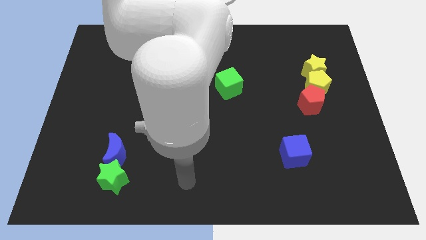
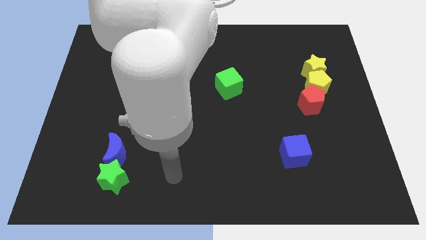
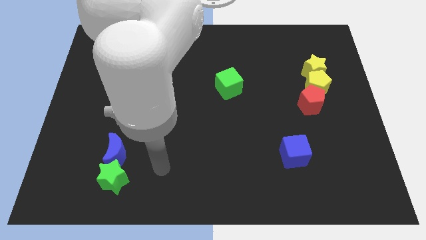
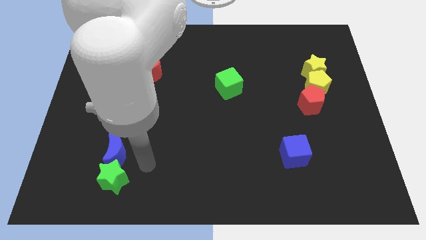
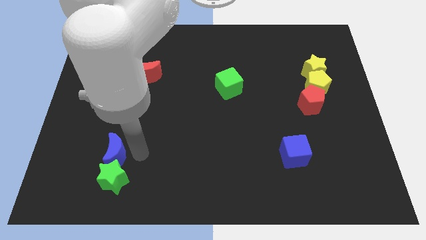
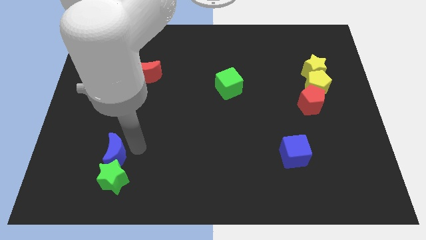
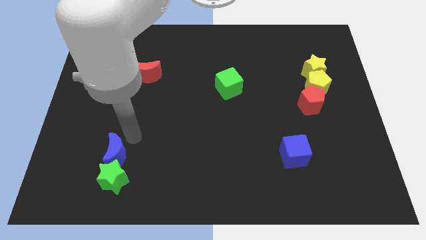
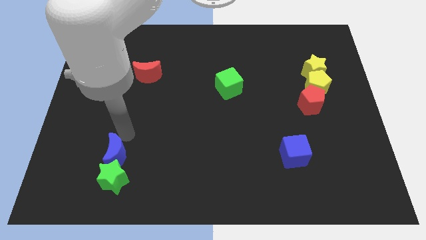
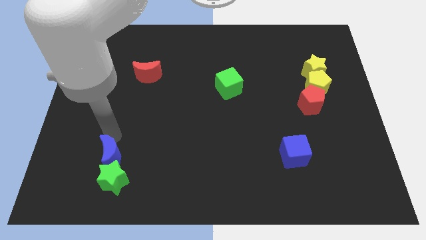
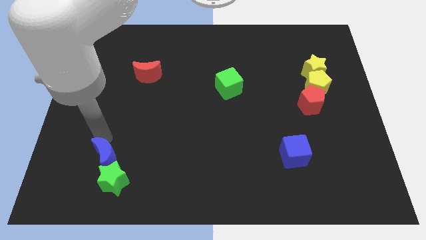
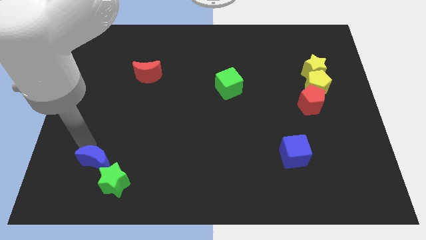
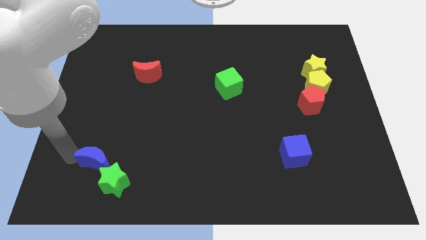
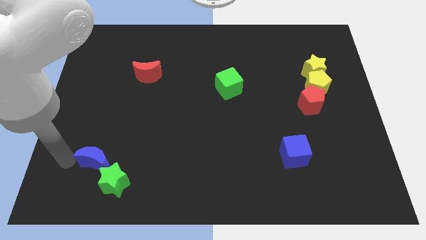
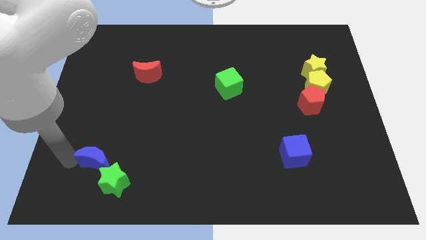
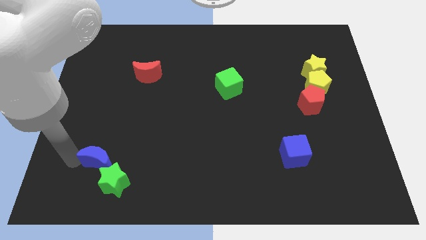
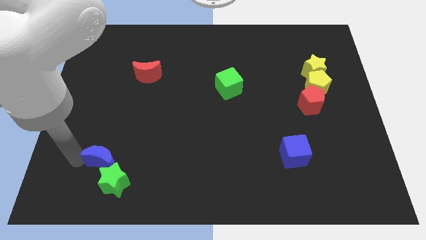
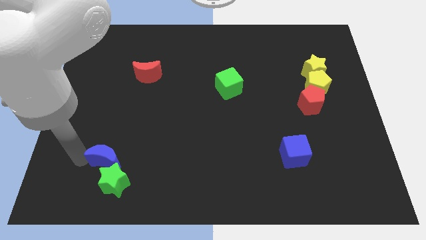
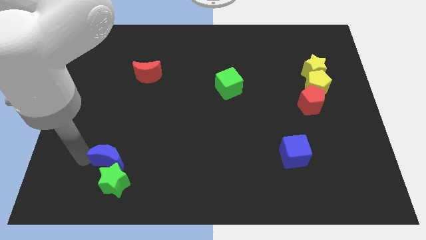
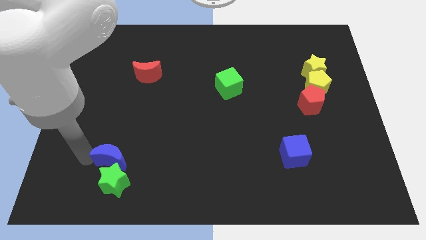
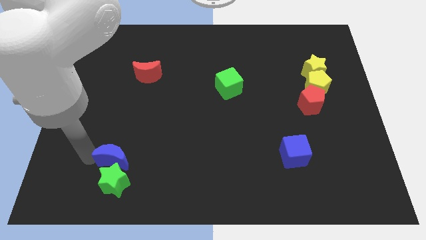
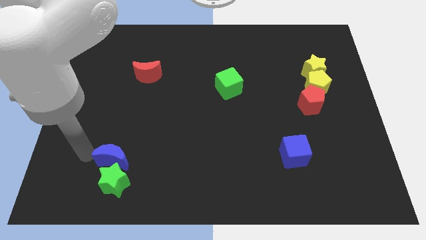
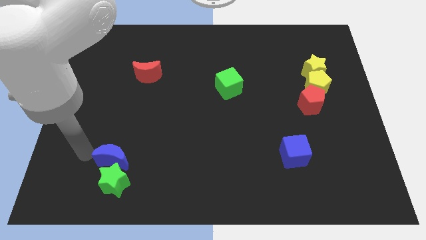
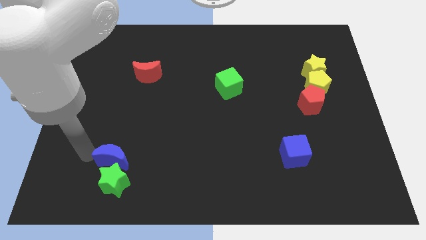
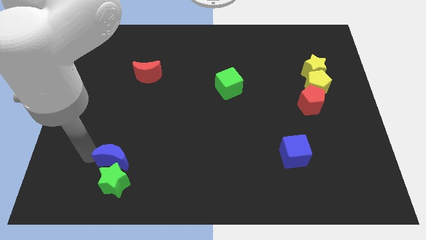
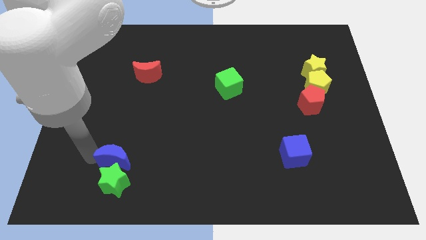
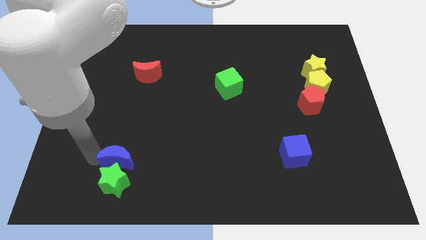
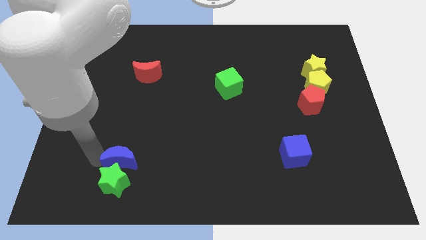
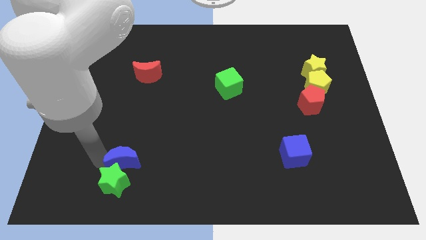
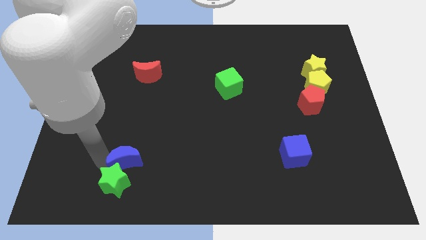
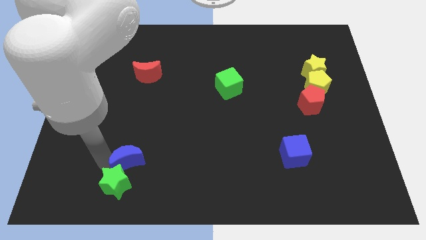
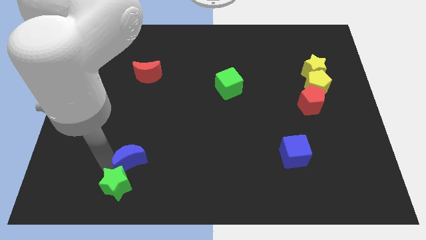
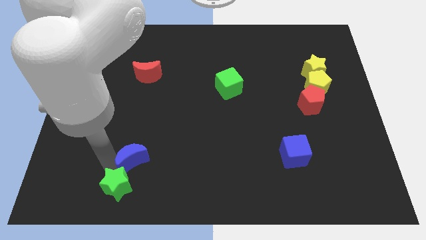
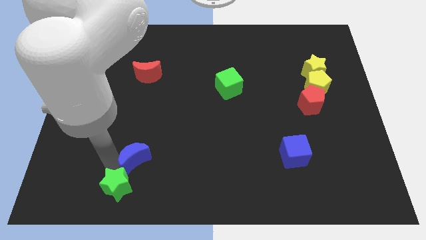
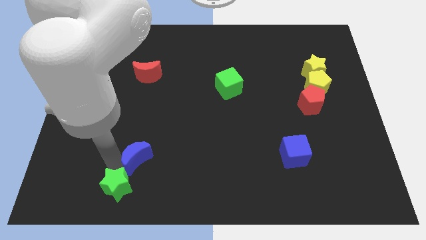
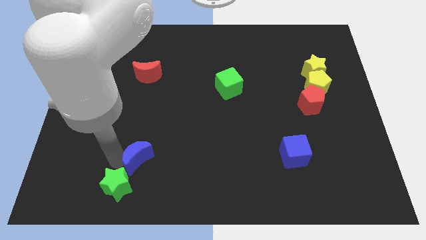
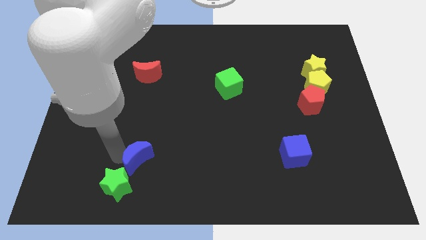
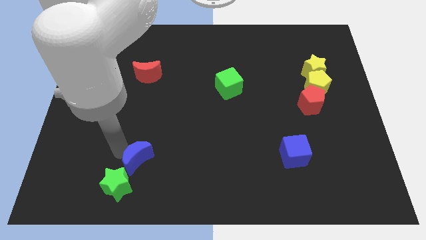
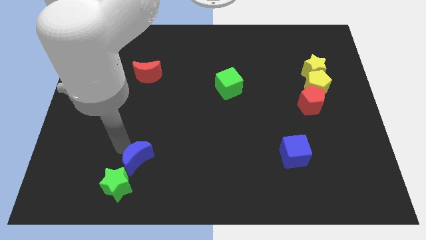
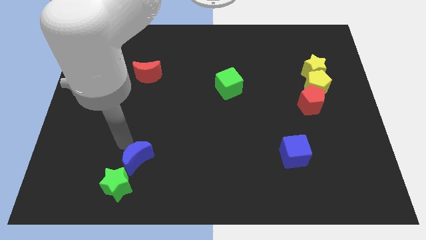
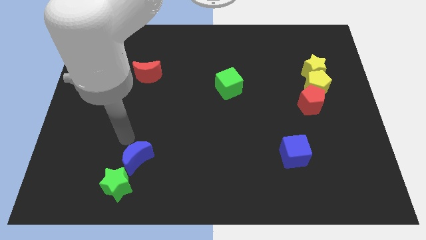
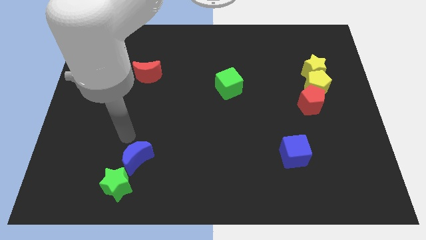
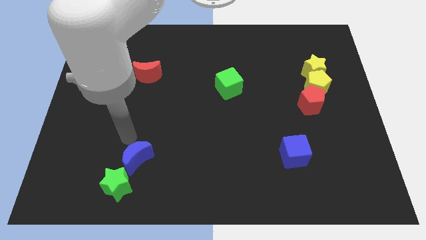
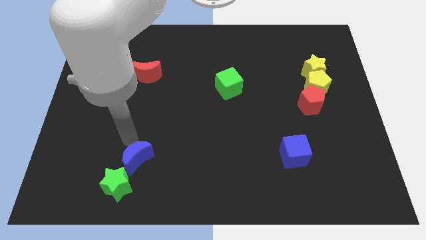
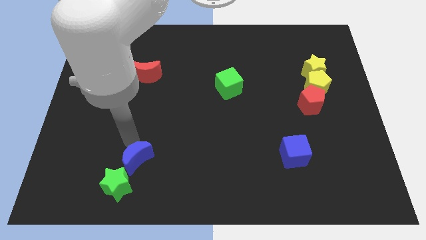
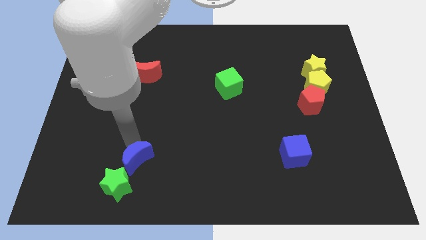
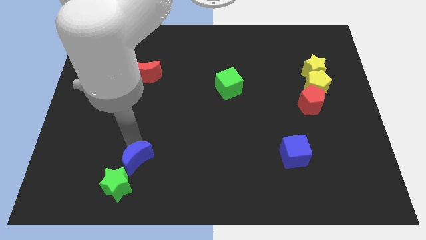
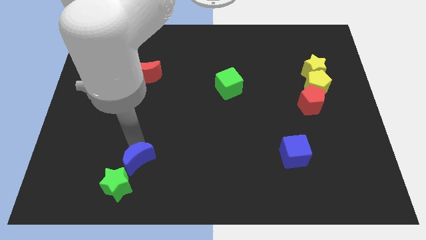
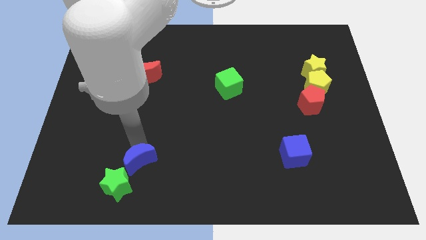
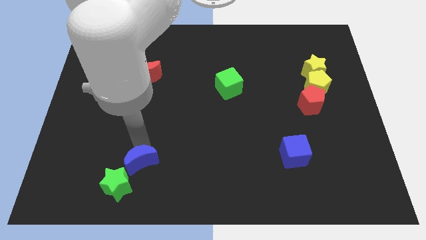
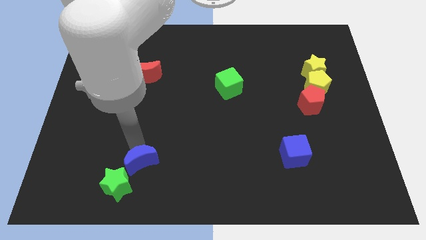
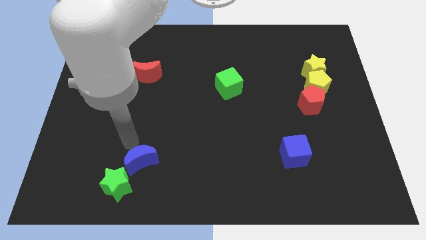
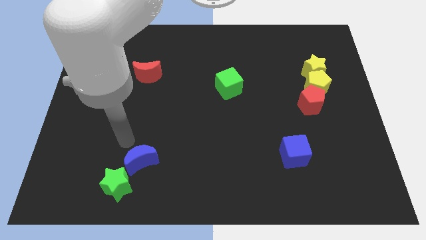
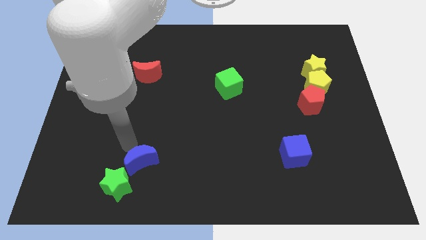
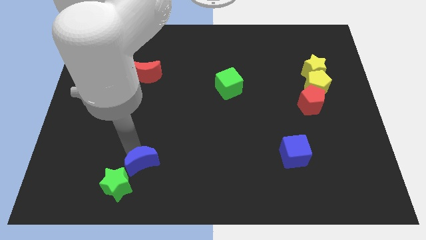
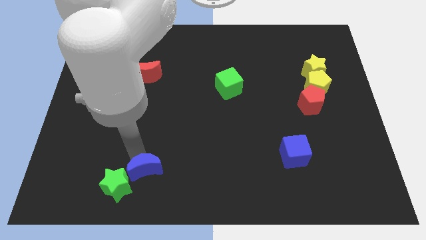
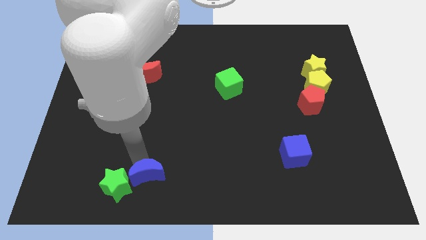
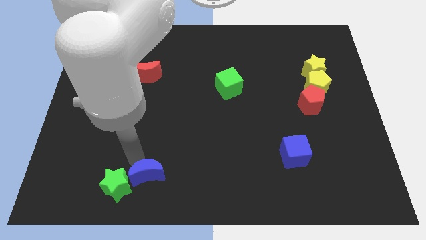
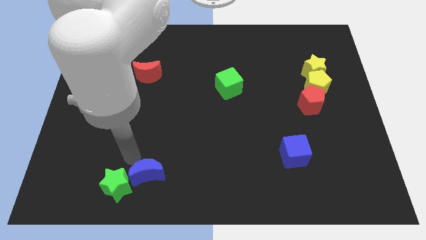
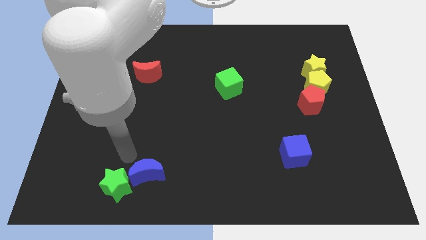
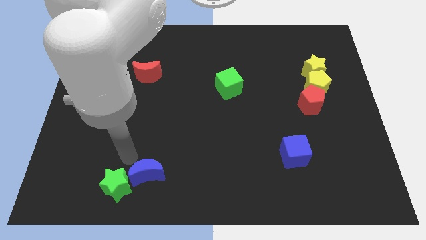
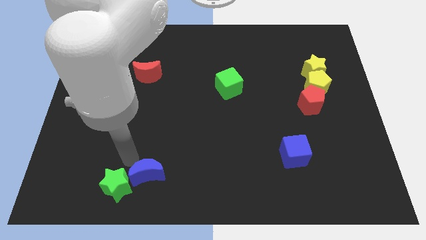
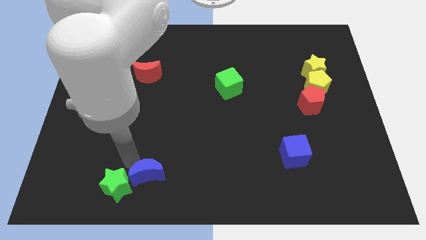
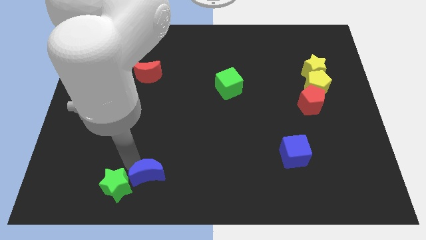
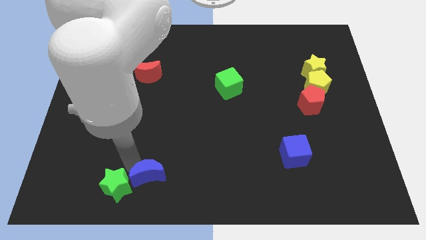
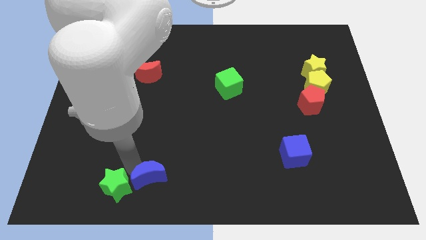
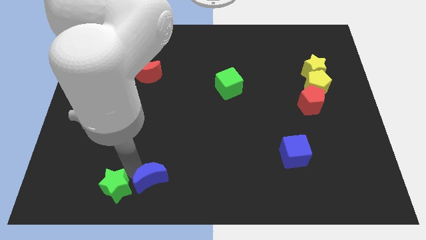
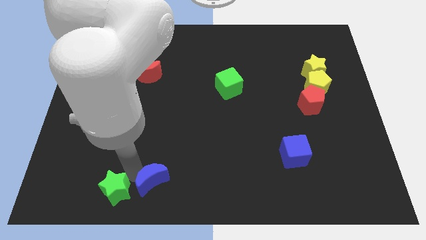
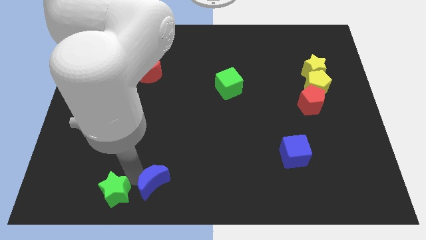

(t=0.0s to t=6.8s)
push the blue moon to the bottom
